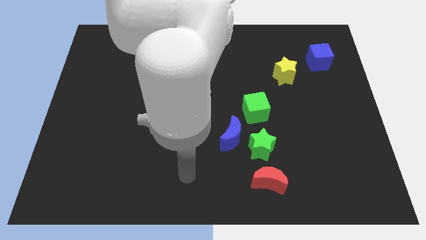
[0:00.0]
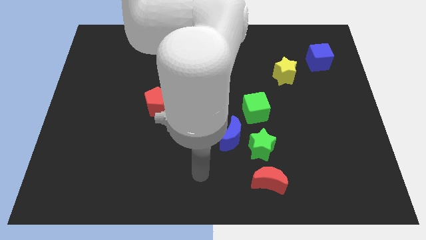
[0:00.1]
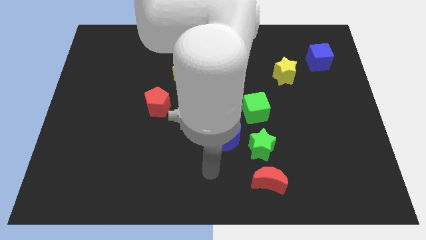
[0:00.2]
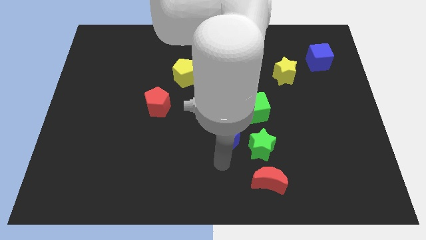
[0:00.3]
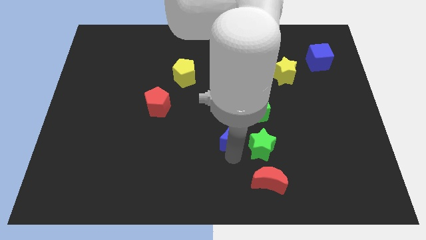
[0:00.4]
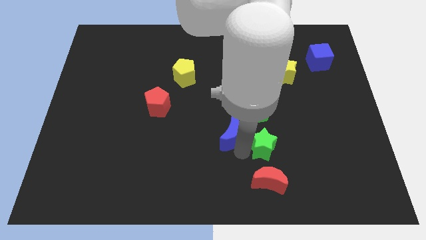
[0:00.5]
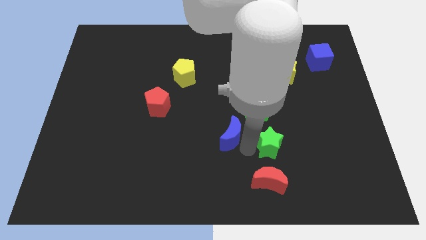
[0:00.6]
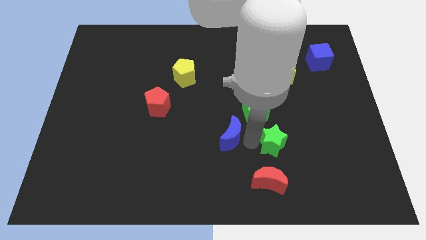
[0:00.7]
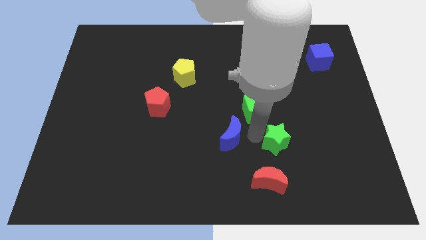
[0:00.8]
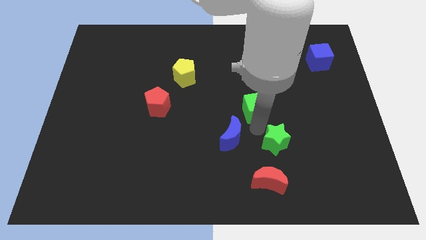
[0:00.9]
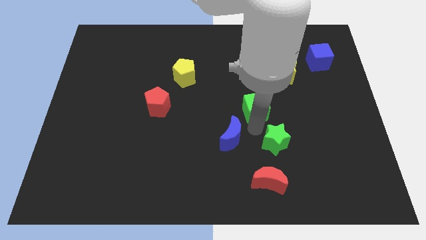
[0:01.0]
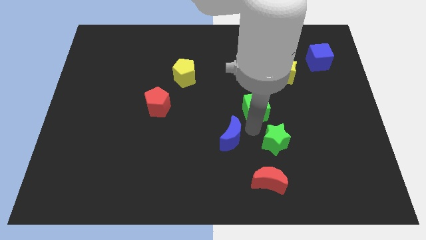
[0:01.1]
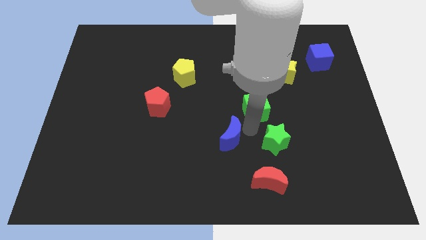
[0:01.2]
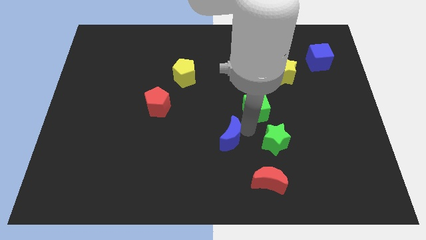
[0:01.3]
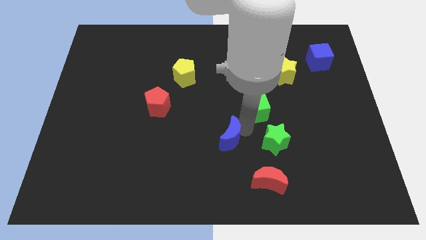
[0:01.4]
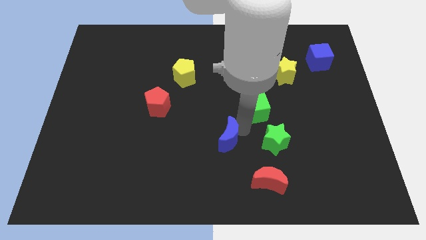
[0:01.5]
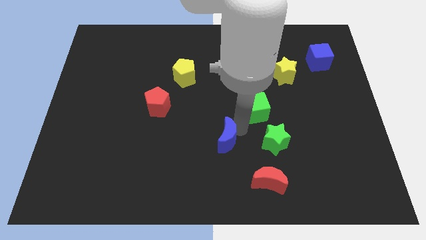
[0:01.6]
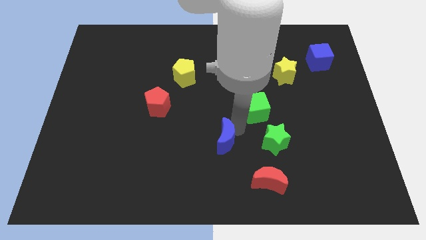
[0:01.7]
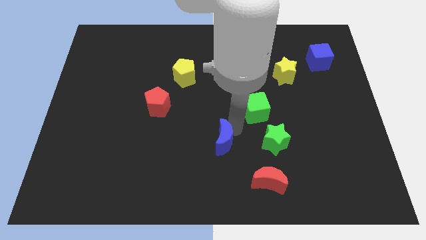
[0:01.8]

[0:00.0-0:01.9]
move the blue moon away from the green star and green cube

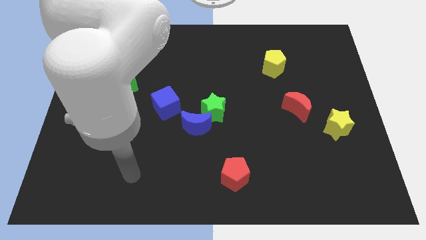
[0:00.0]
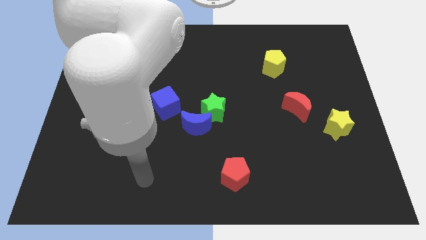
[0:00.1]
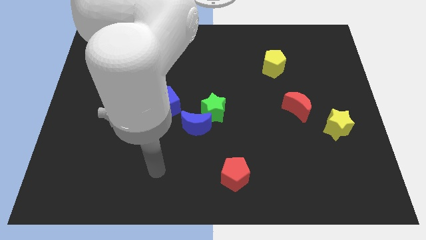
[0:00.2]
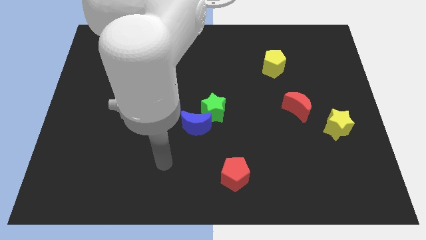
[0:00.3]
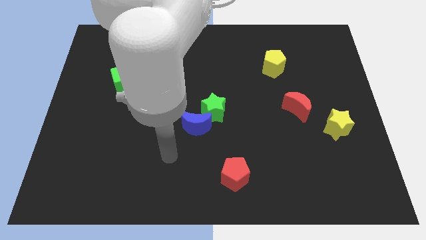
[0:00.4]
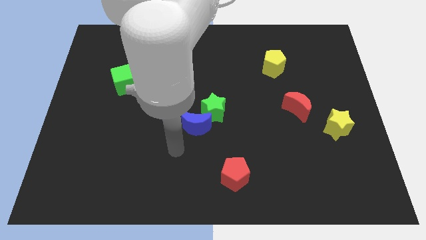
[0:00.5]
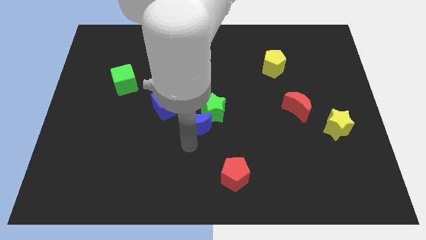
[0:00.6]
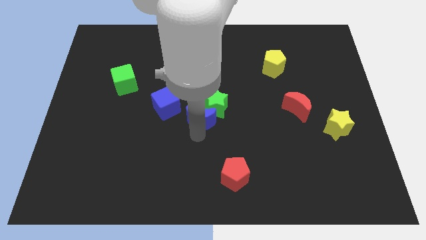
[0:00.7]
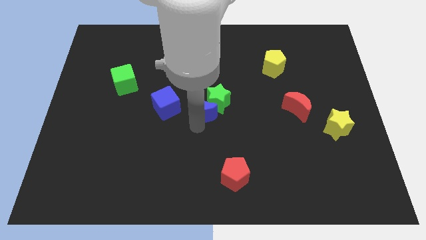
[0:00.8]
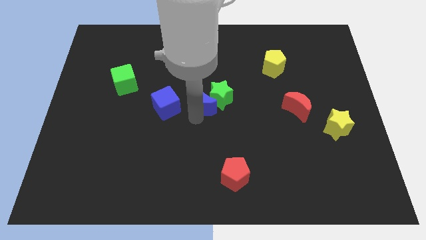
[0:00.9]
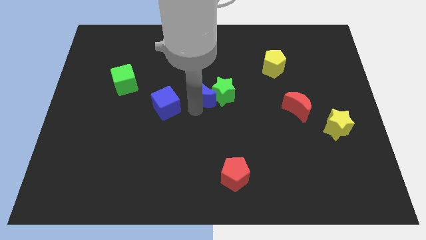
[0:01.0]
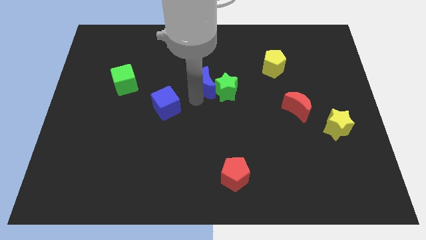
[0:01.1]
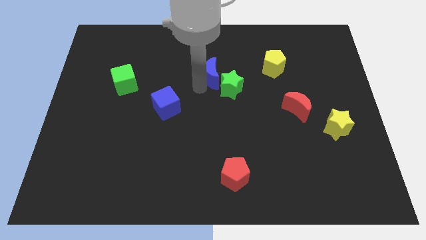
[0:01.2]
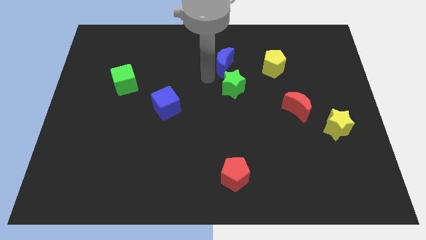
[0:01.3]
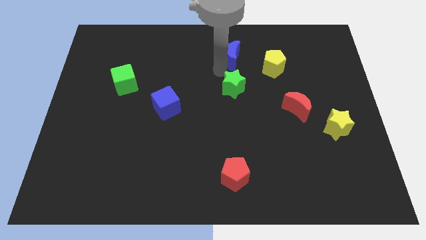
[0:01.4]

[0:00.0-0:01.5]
separate the green star from the blue moon

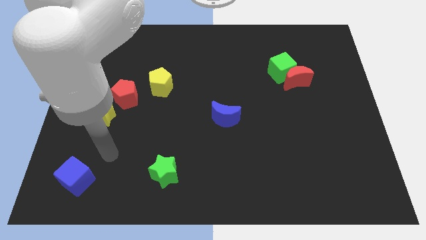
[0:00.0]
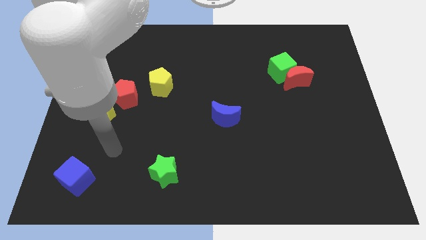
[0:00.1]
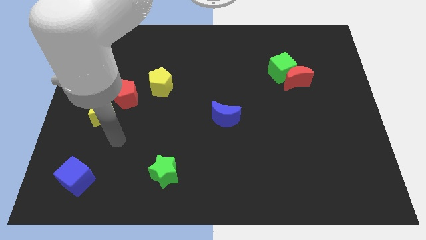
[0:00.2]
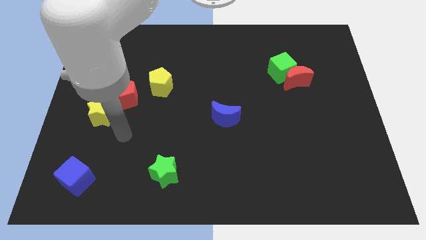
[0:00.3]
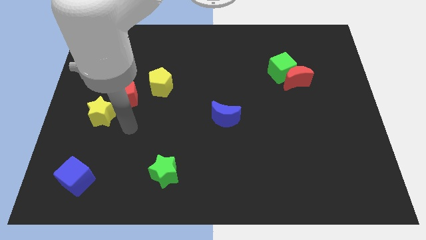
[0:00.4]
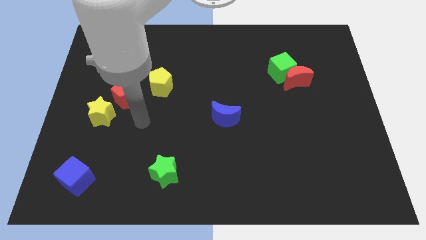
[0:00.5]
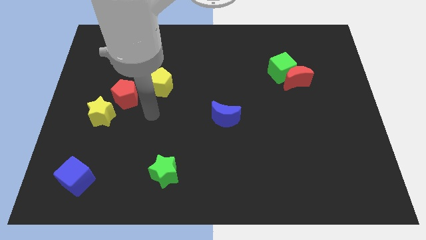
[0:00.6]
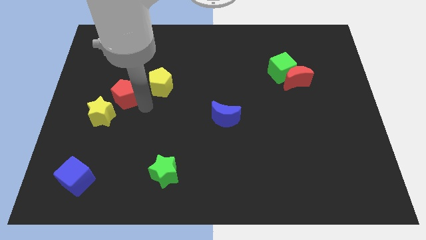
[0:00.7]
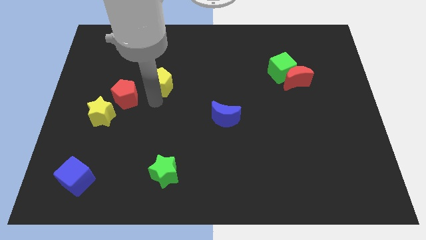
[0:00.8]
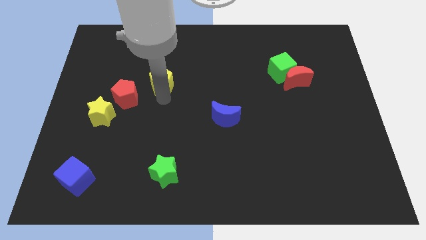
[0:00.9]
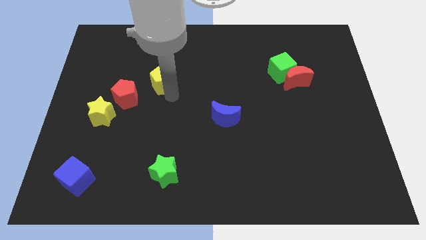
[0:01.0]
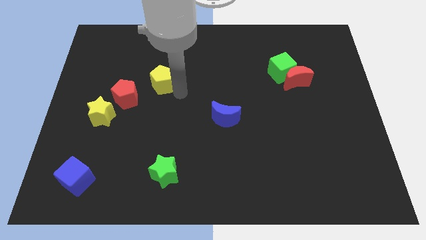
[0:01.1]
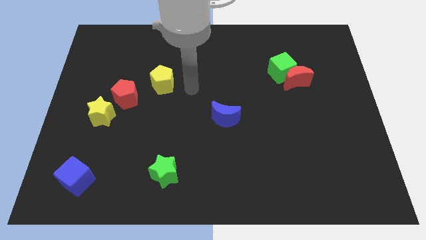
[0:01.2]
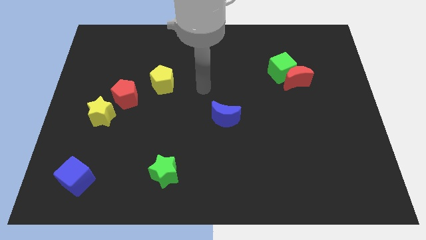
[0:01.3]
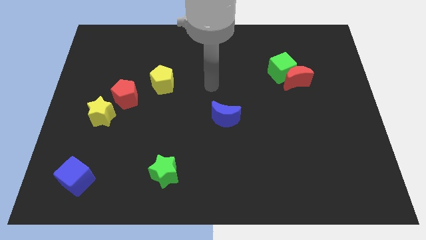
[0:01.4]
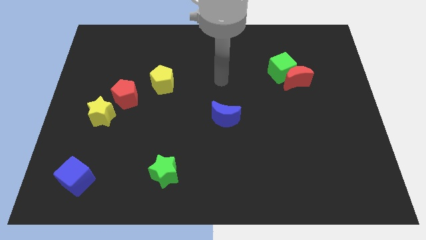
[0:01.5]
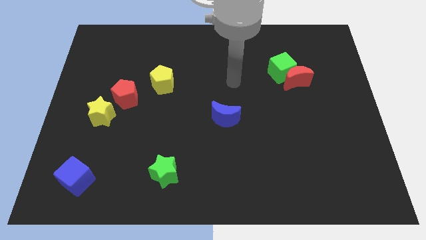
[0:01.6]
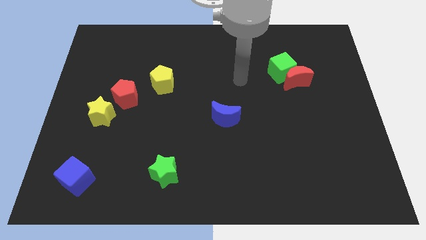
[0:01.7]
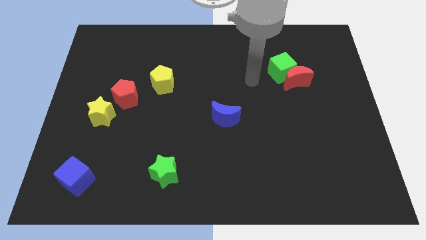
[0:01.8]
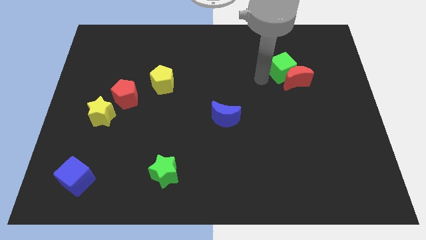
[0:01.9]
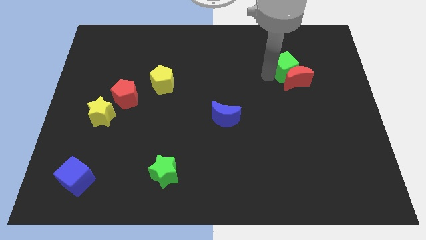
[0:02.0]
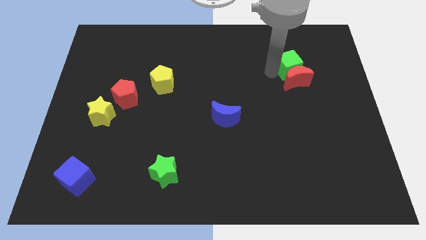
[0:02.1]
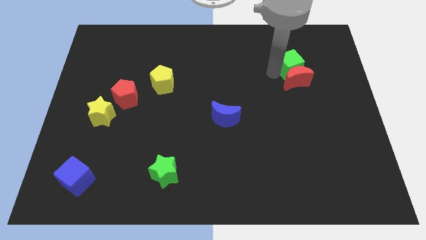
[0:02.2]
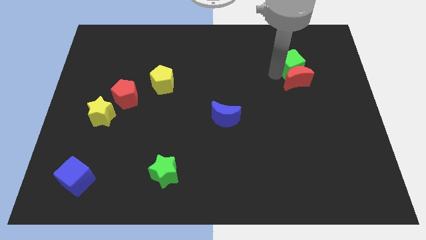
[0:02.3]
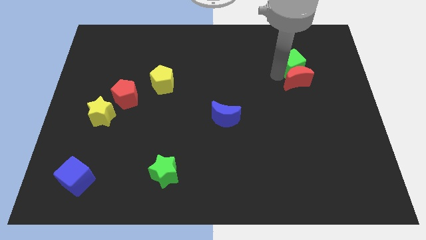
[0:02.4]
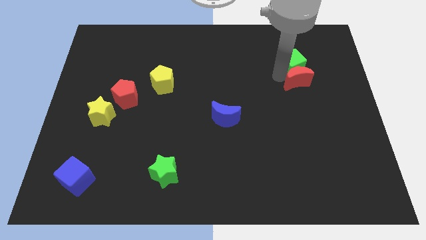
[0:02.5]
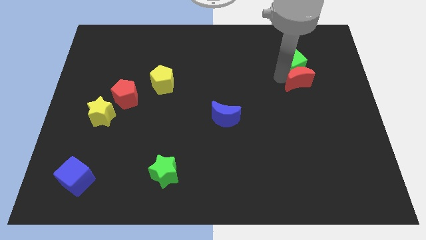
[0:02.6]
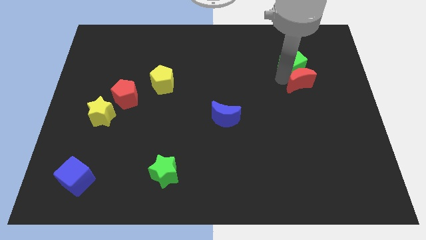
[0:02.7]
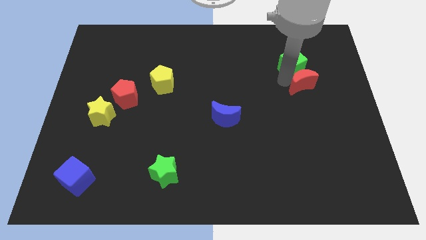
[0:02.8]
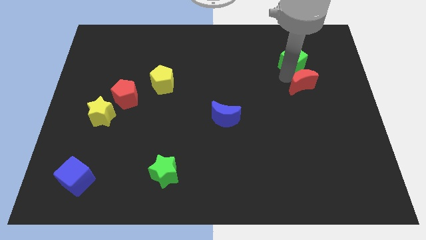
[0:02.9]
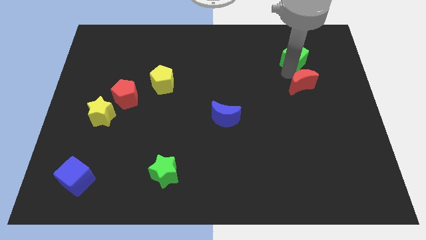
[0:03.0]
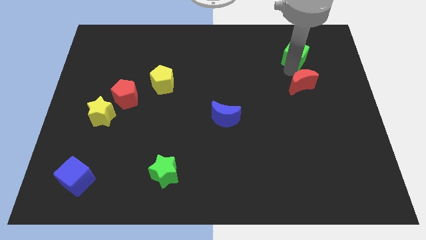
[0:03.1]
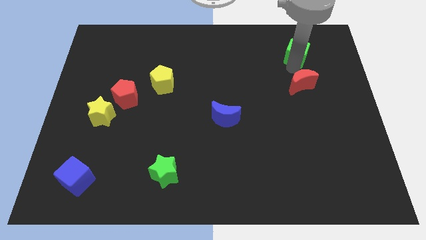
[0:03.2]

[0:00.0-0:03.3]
move the red moon away from the green cube

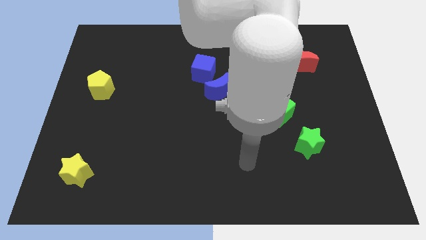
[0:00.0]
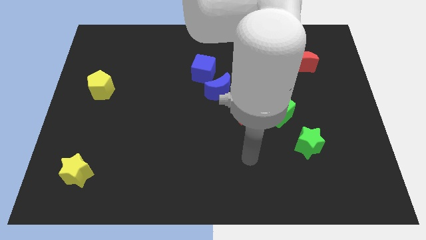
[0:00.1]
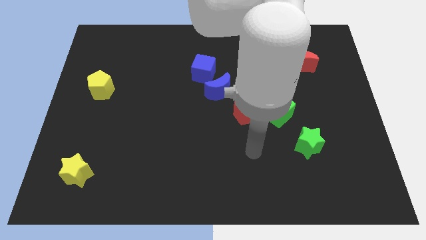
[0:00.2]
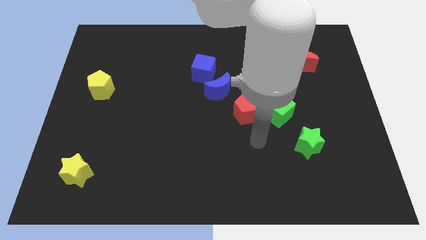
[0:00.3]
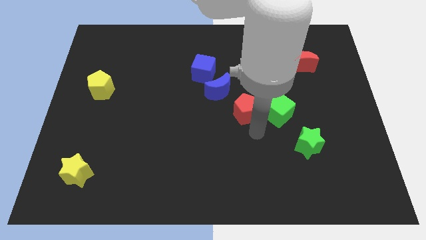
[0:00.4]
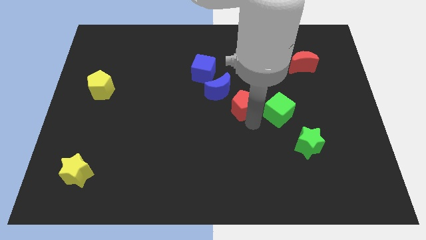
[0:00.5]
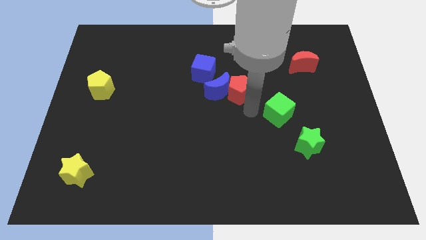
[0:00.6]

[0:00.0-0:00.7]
pull the green cube apart from the red pentagon

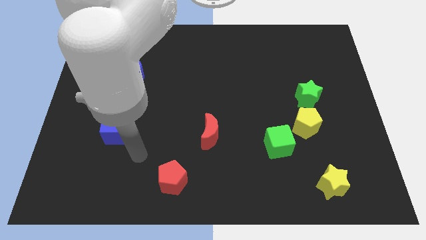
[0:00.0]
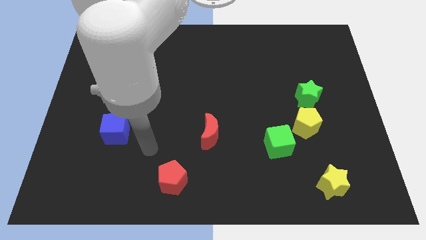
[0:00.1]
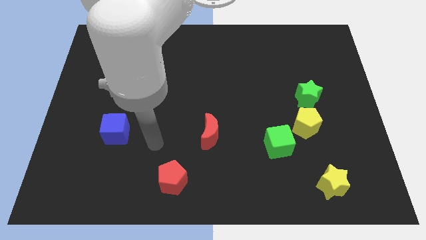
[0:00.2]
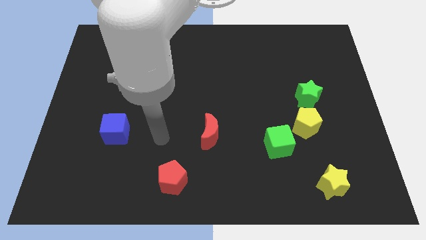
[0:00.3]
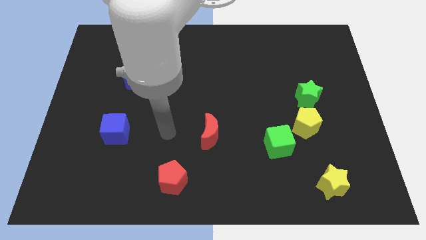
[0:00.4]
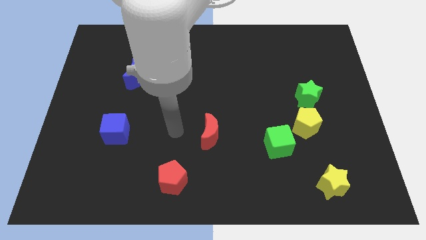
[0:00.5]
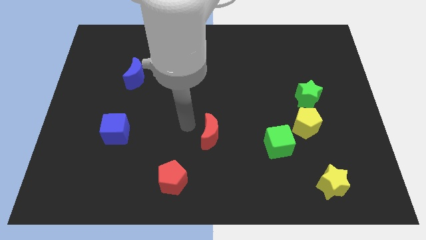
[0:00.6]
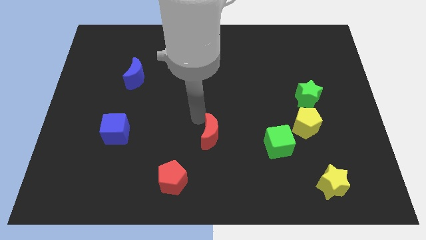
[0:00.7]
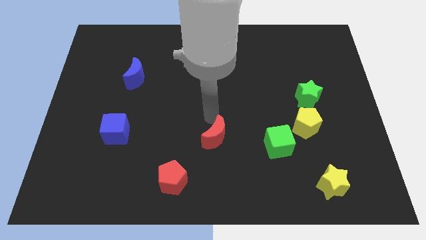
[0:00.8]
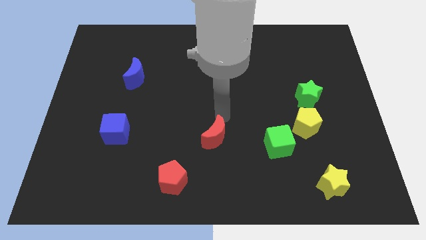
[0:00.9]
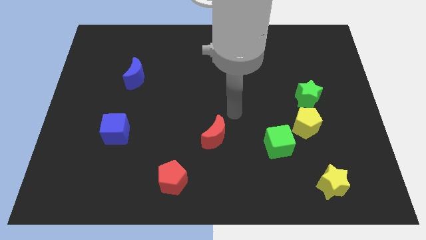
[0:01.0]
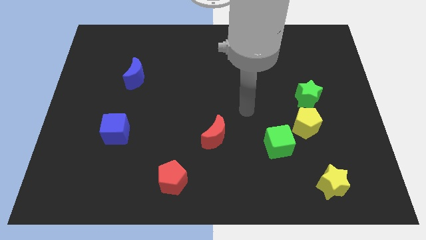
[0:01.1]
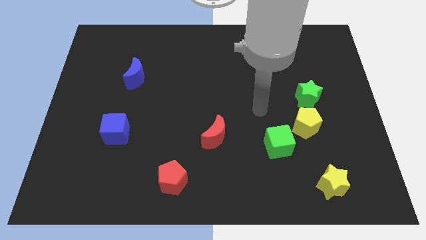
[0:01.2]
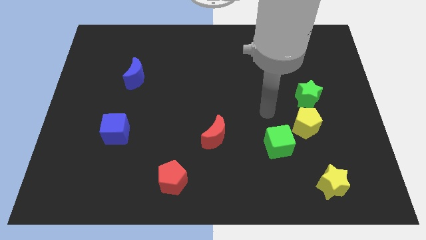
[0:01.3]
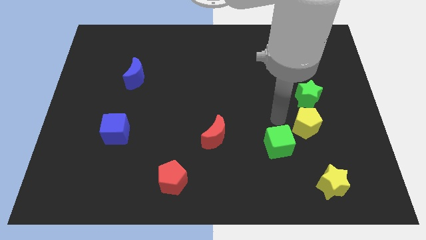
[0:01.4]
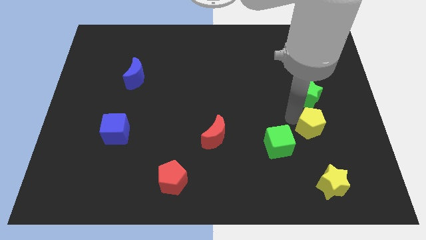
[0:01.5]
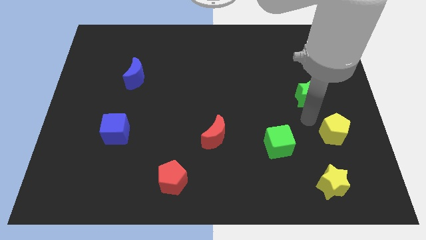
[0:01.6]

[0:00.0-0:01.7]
pull the green star apart from the yellow pentagon

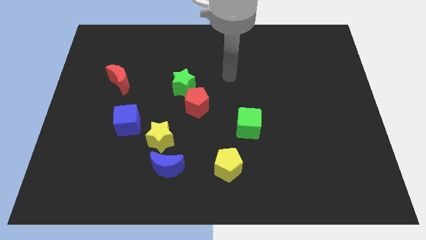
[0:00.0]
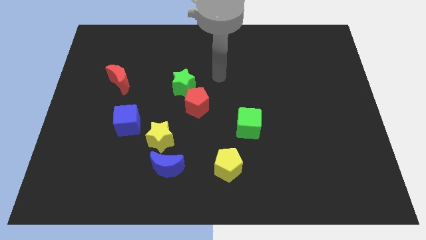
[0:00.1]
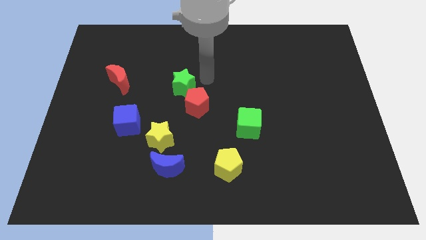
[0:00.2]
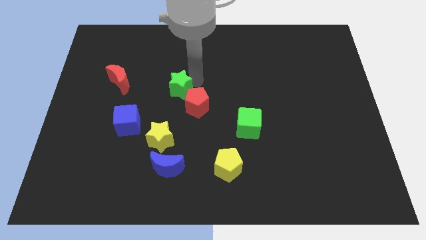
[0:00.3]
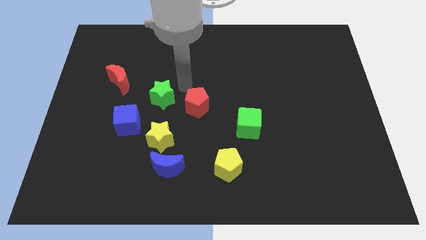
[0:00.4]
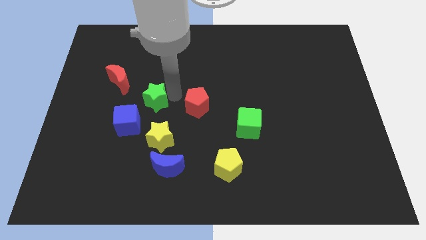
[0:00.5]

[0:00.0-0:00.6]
separate the red pentagon from the green star
